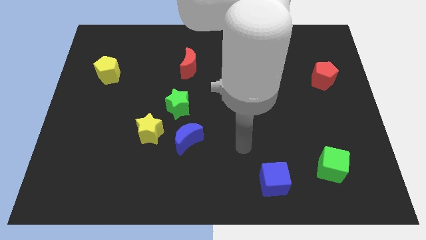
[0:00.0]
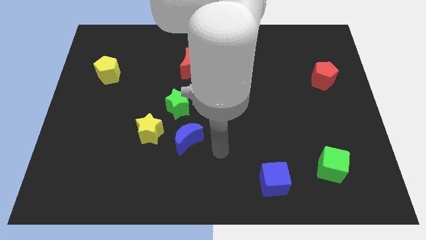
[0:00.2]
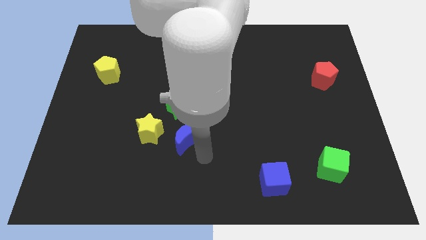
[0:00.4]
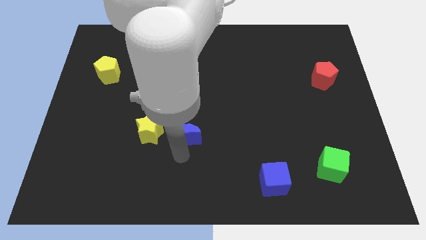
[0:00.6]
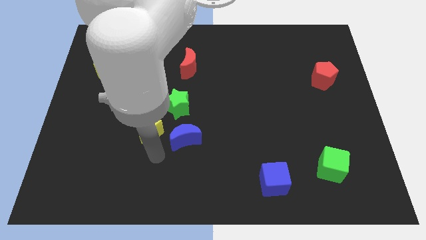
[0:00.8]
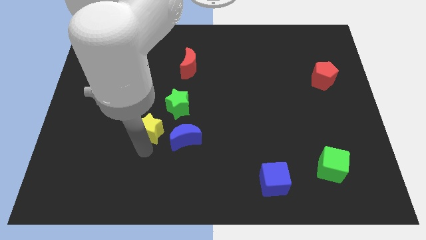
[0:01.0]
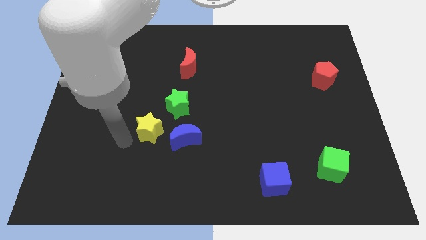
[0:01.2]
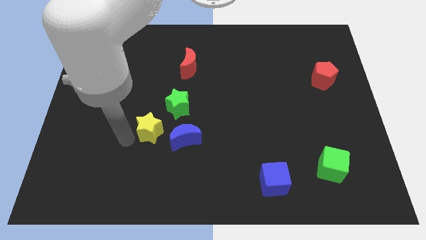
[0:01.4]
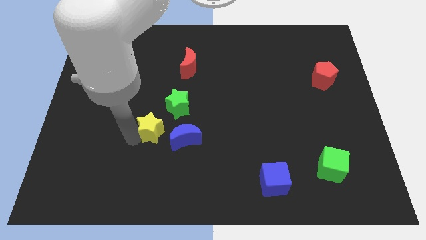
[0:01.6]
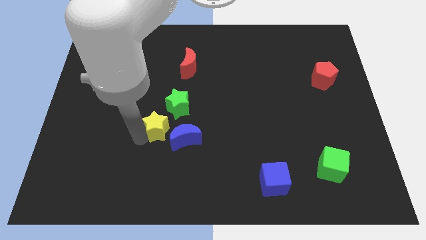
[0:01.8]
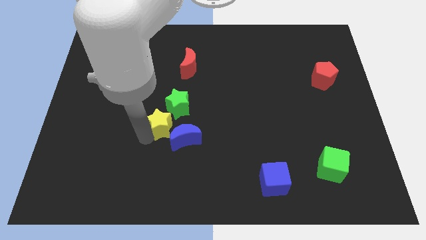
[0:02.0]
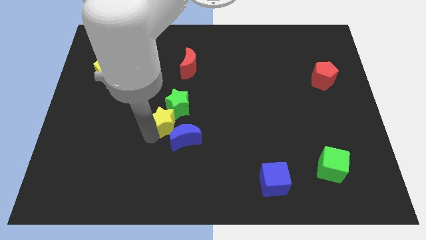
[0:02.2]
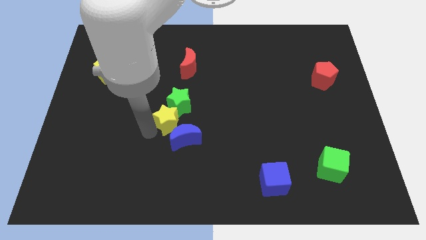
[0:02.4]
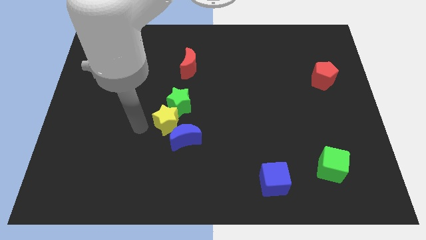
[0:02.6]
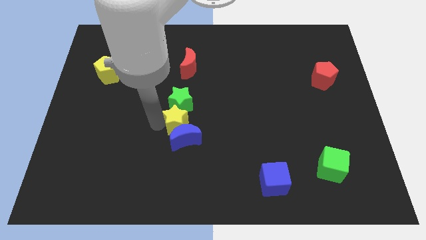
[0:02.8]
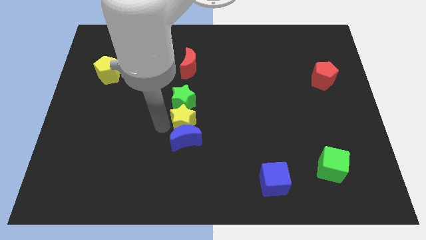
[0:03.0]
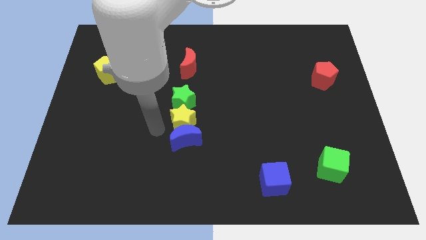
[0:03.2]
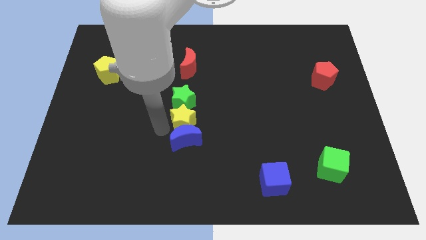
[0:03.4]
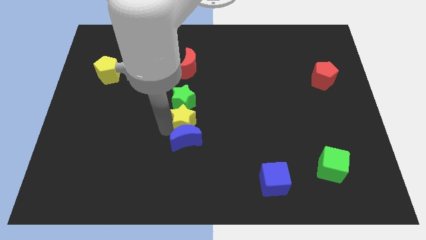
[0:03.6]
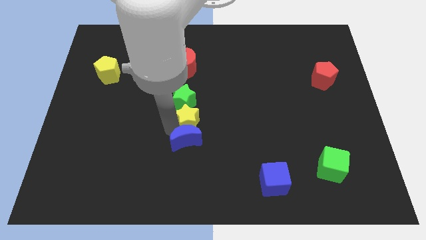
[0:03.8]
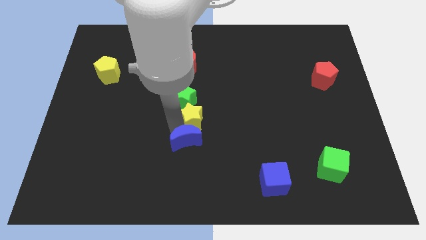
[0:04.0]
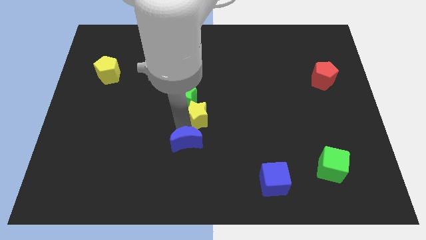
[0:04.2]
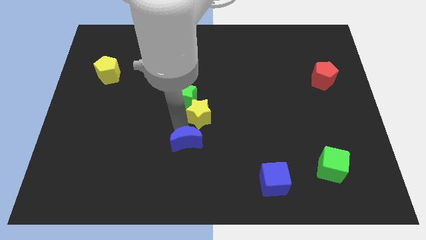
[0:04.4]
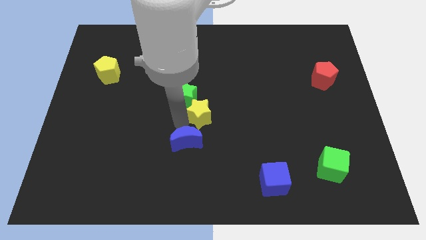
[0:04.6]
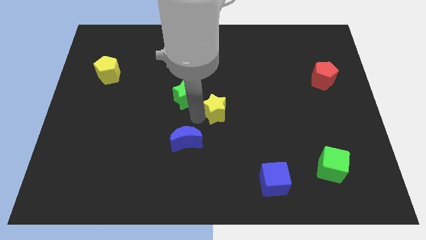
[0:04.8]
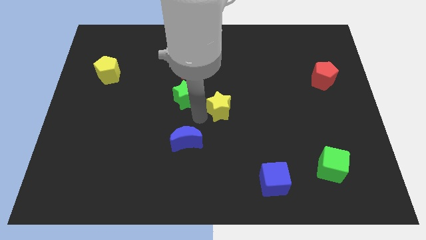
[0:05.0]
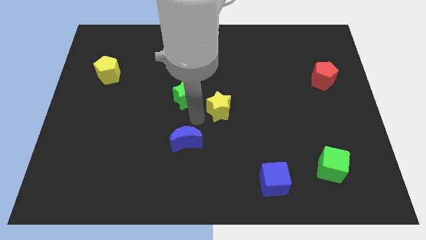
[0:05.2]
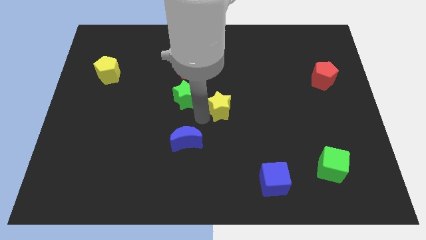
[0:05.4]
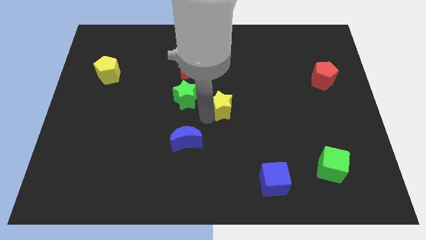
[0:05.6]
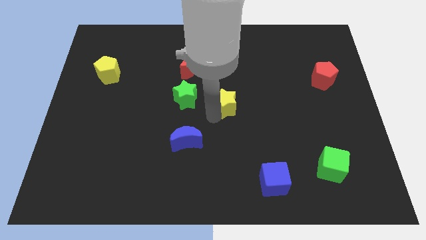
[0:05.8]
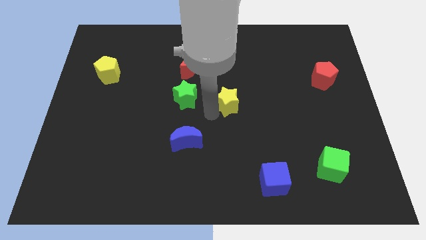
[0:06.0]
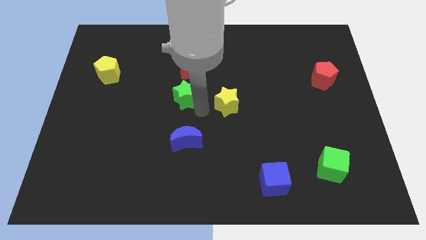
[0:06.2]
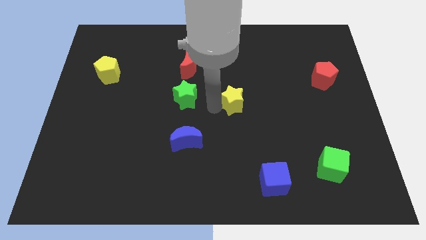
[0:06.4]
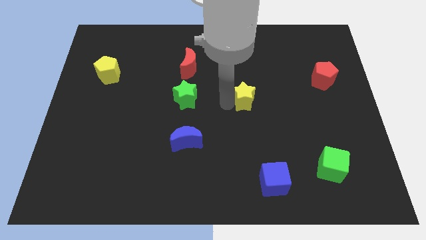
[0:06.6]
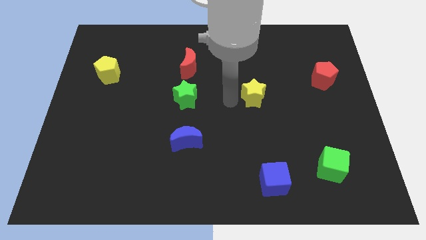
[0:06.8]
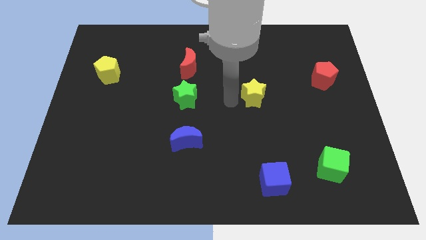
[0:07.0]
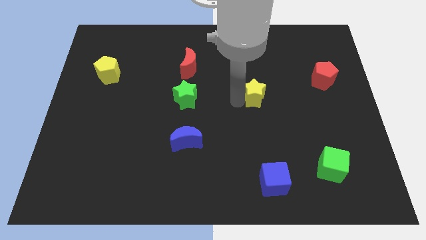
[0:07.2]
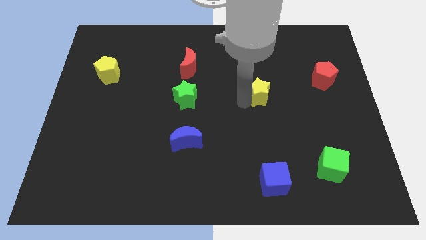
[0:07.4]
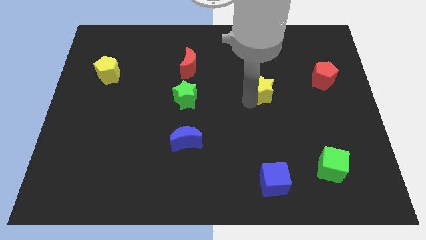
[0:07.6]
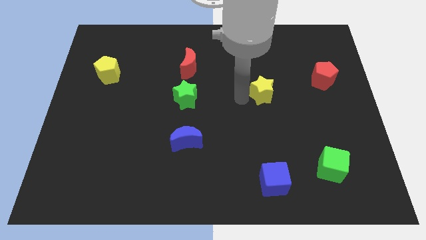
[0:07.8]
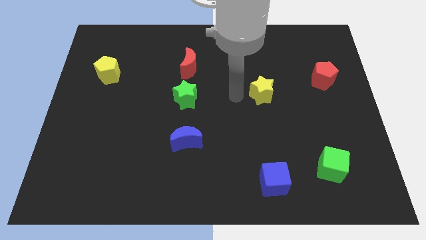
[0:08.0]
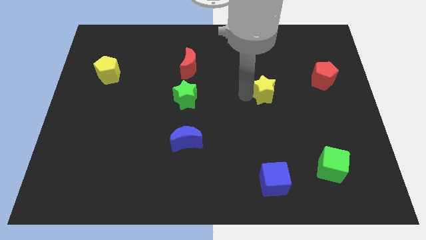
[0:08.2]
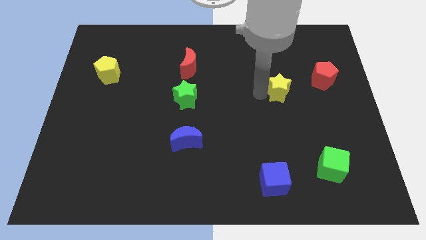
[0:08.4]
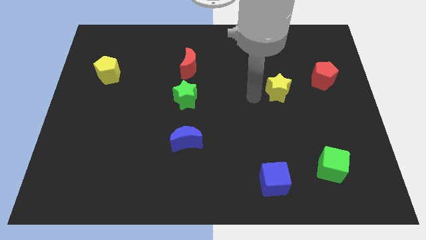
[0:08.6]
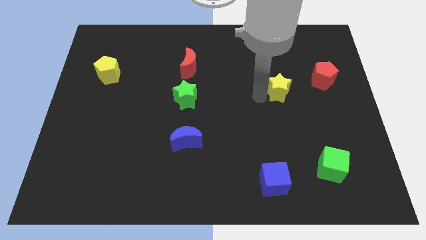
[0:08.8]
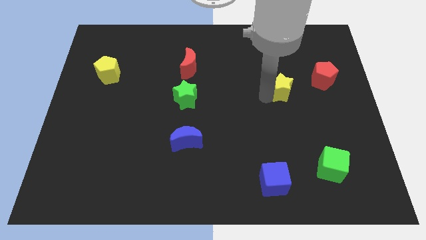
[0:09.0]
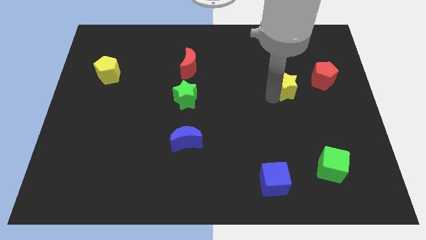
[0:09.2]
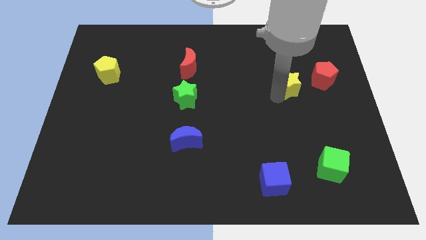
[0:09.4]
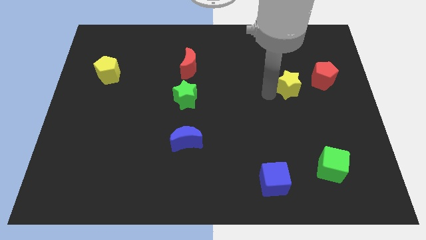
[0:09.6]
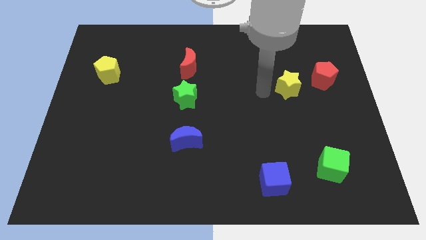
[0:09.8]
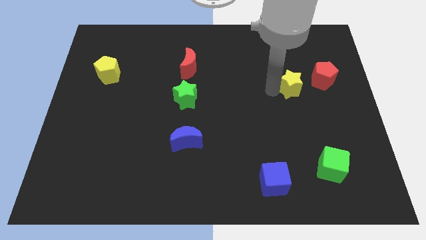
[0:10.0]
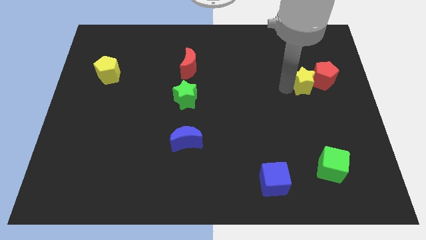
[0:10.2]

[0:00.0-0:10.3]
push the yellow star next to the red pentagon

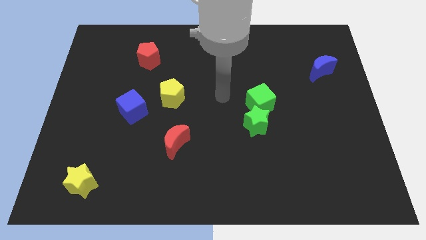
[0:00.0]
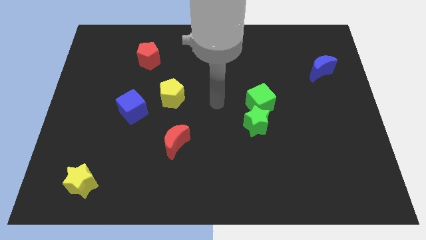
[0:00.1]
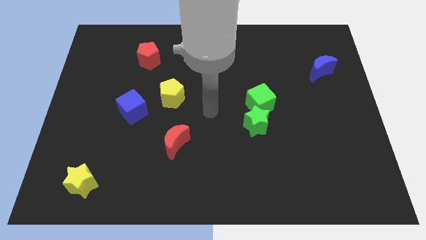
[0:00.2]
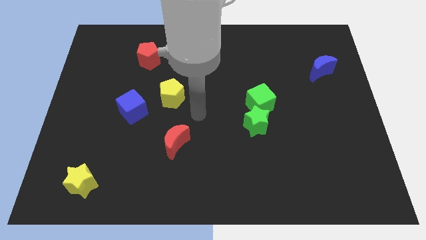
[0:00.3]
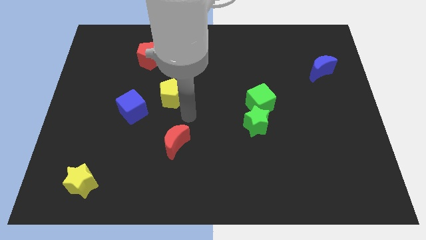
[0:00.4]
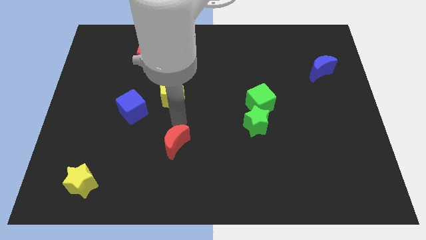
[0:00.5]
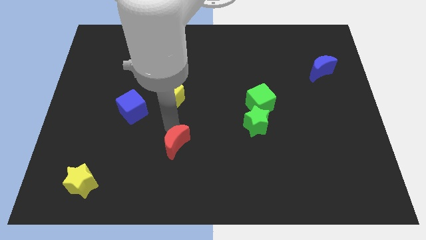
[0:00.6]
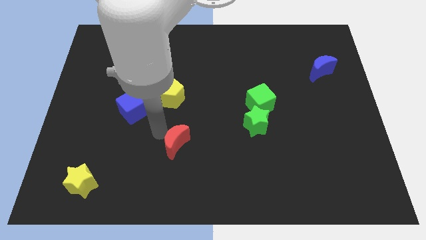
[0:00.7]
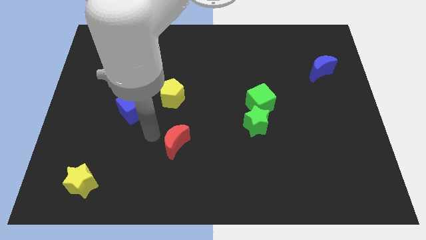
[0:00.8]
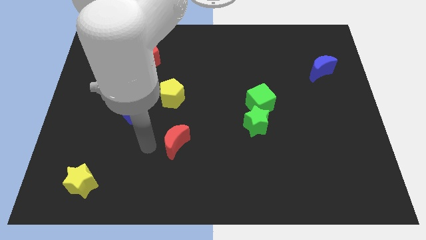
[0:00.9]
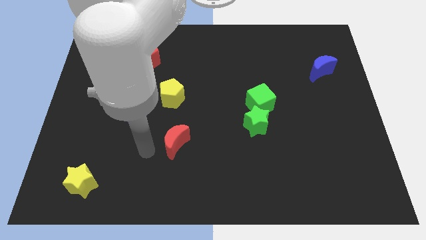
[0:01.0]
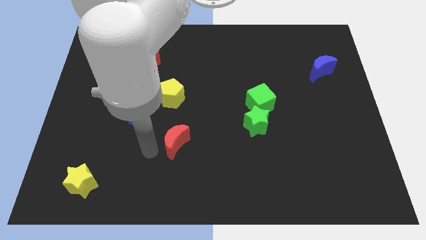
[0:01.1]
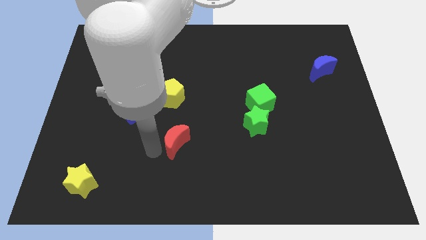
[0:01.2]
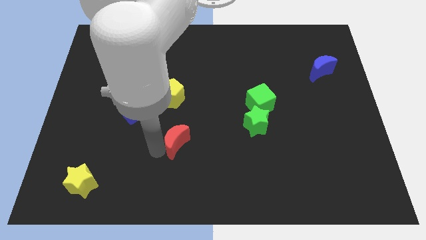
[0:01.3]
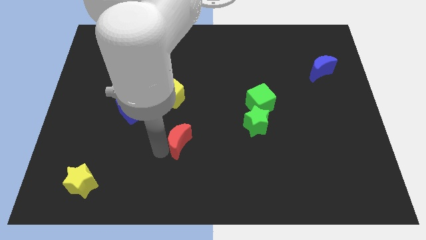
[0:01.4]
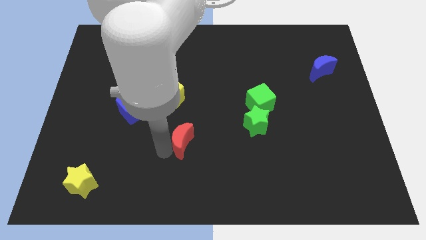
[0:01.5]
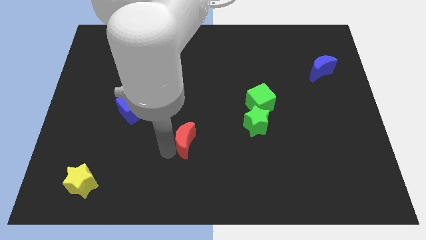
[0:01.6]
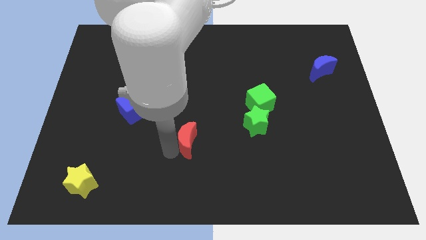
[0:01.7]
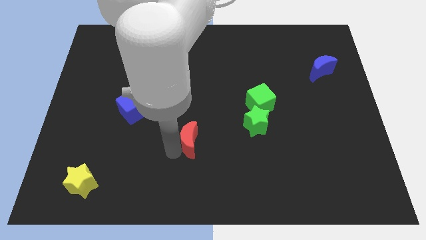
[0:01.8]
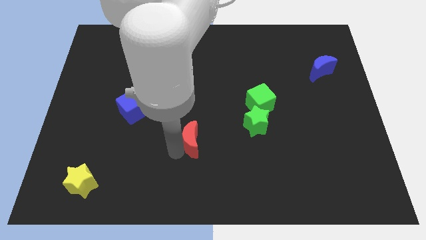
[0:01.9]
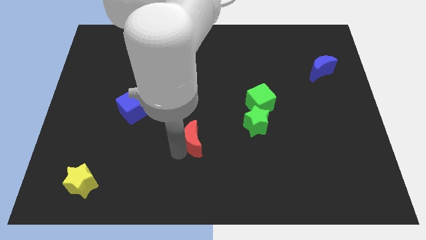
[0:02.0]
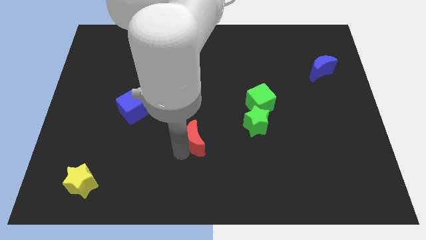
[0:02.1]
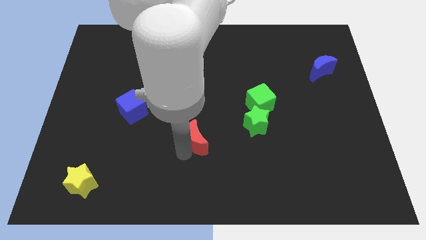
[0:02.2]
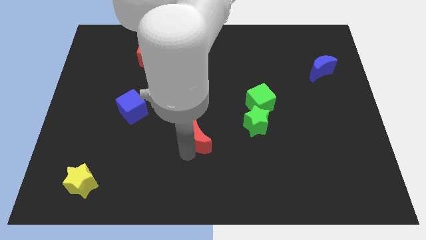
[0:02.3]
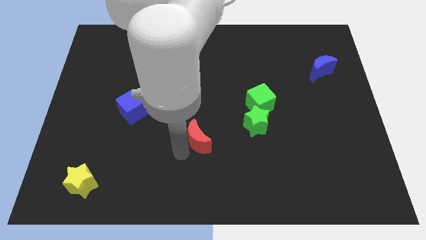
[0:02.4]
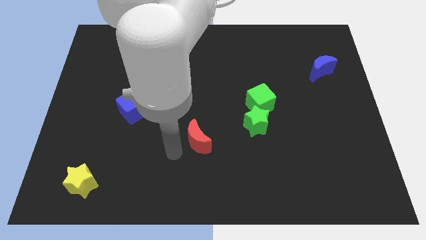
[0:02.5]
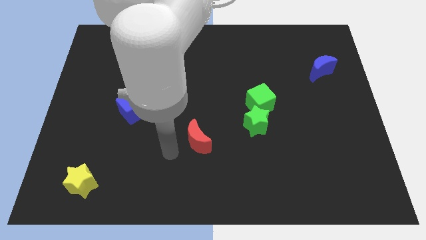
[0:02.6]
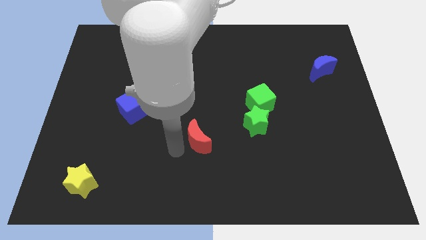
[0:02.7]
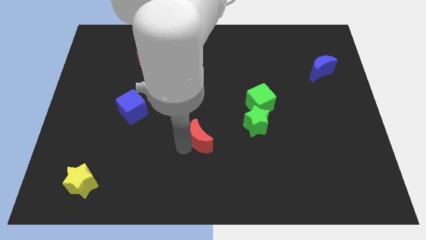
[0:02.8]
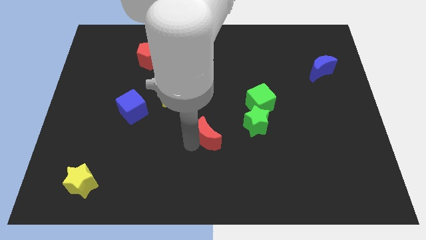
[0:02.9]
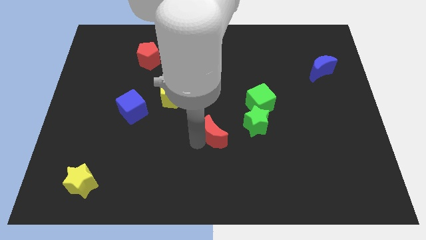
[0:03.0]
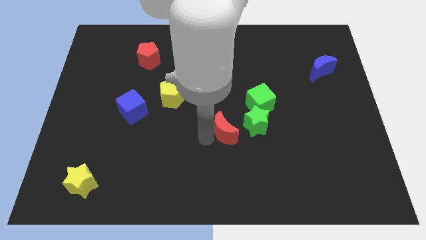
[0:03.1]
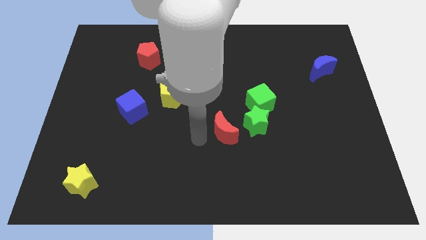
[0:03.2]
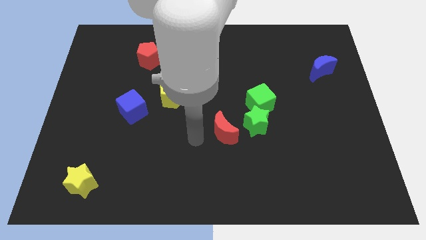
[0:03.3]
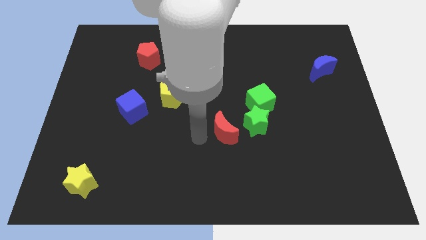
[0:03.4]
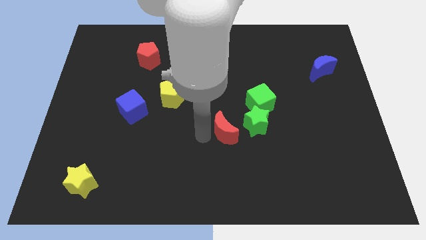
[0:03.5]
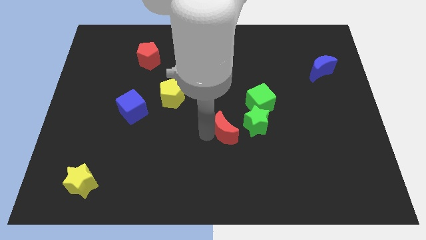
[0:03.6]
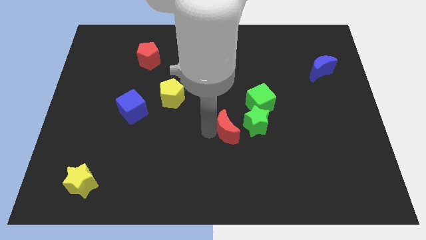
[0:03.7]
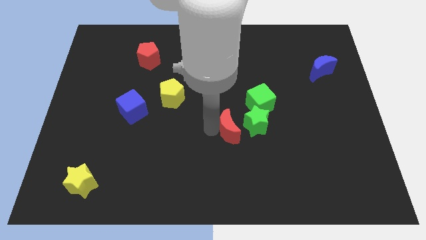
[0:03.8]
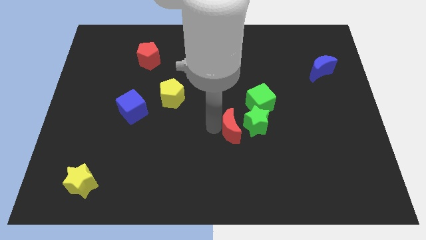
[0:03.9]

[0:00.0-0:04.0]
put the red moon next to the green star
